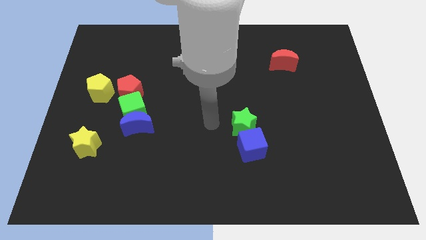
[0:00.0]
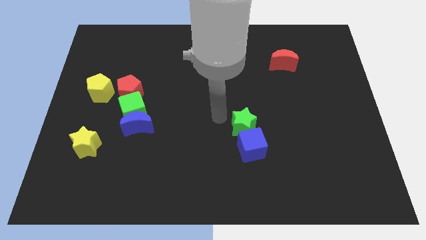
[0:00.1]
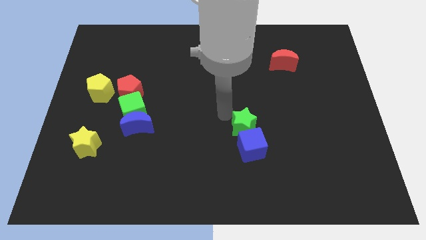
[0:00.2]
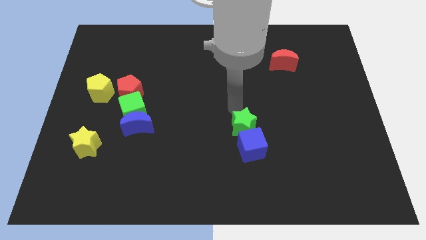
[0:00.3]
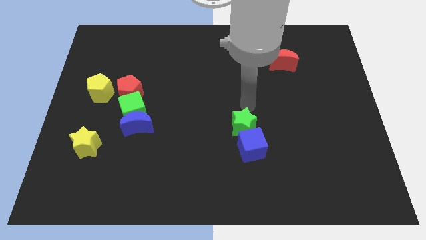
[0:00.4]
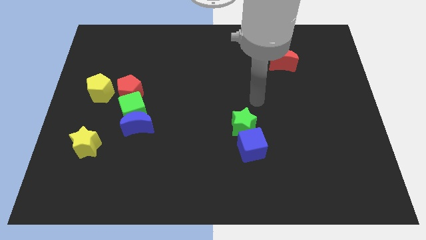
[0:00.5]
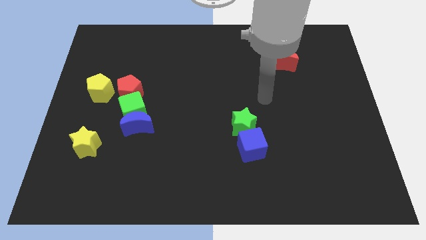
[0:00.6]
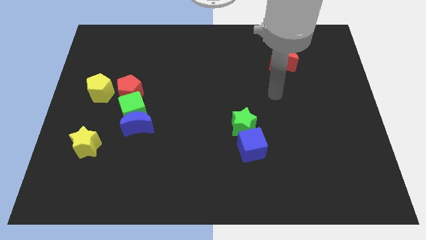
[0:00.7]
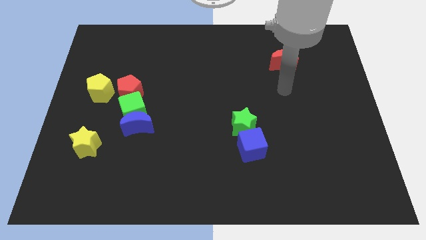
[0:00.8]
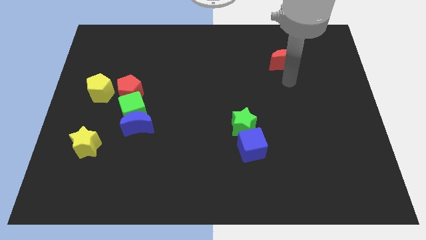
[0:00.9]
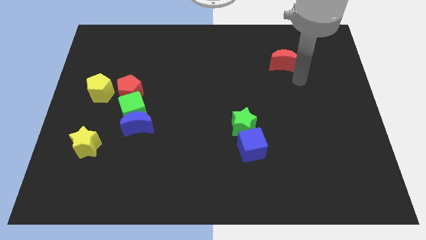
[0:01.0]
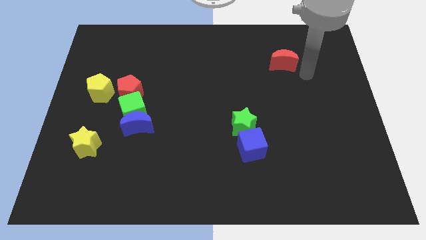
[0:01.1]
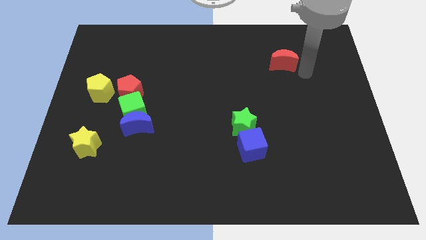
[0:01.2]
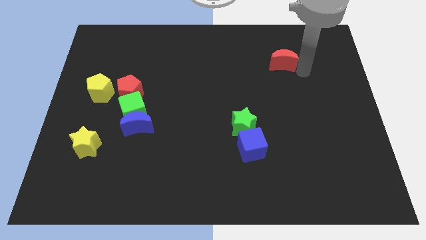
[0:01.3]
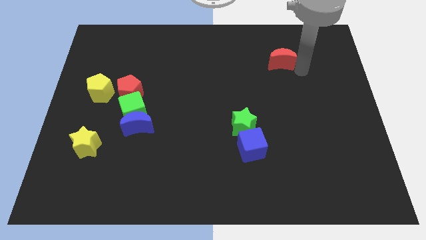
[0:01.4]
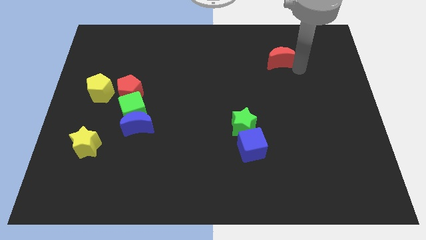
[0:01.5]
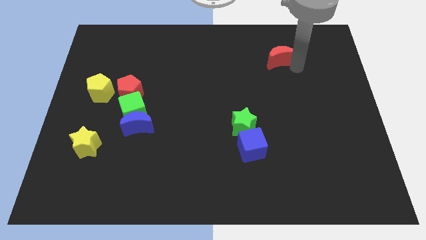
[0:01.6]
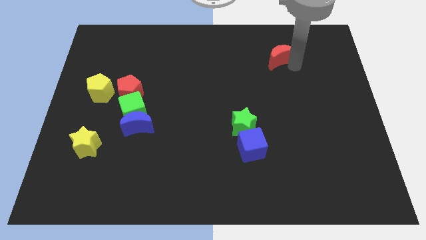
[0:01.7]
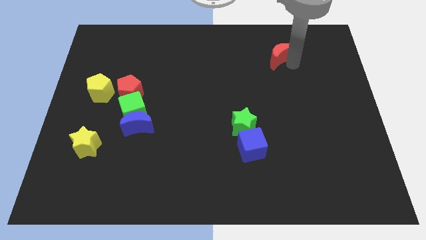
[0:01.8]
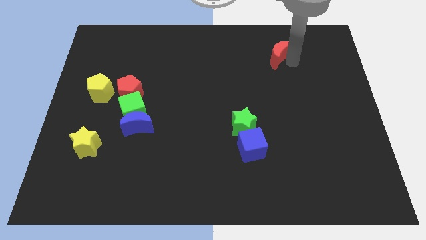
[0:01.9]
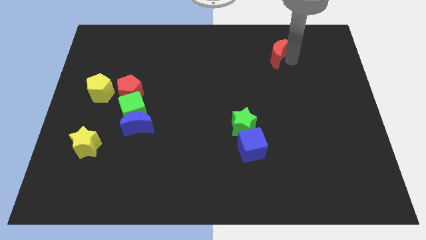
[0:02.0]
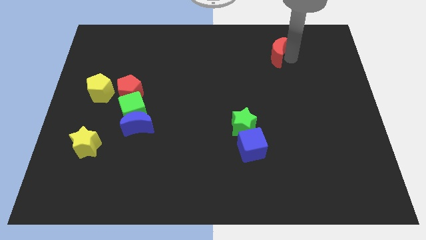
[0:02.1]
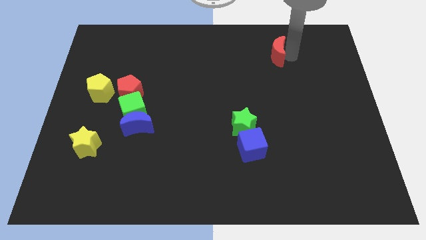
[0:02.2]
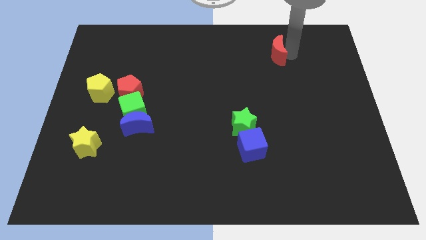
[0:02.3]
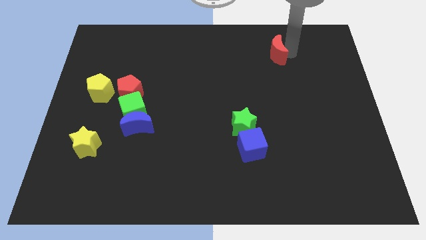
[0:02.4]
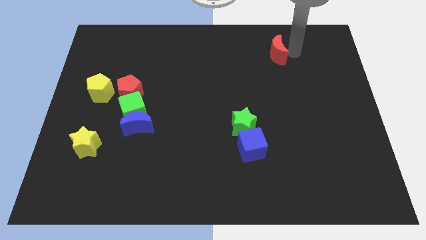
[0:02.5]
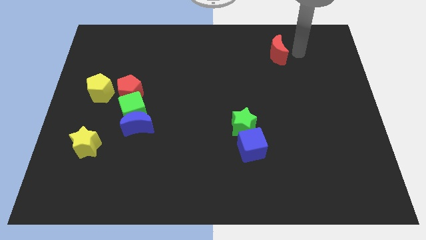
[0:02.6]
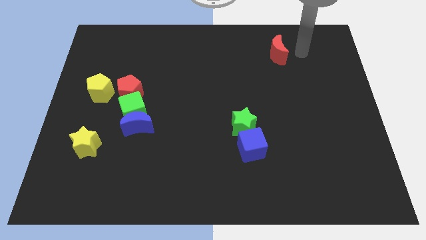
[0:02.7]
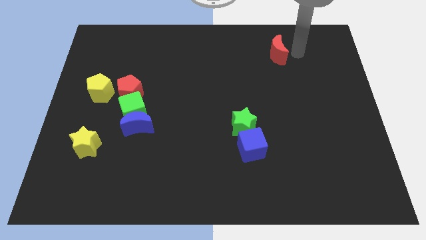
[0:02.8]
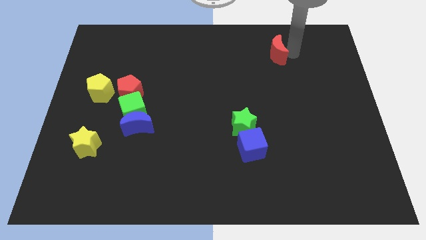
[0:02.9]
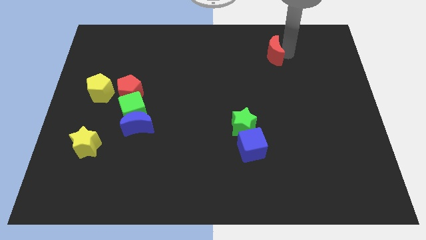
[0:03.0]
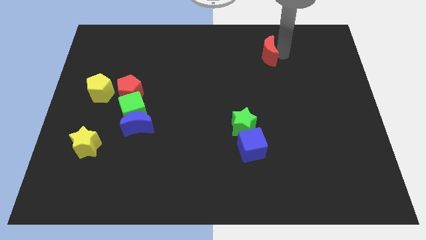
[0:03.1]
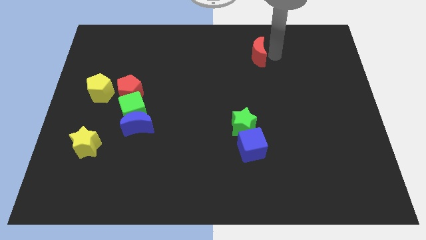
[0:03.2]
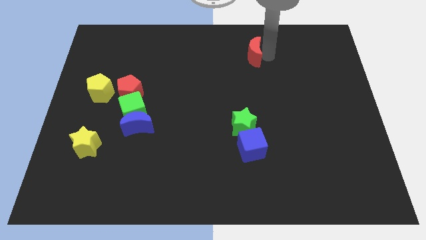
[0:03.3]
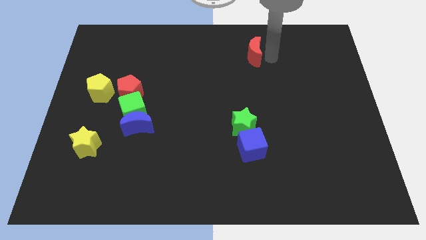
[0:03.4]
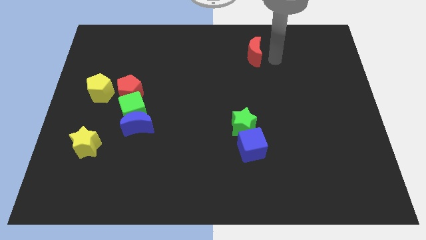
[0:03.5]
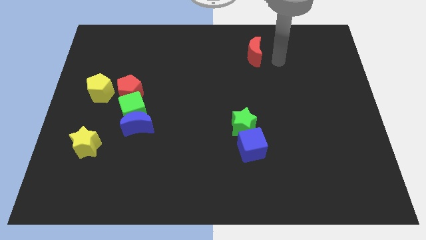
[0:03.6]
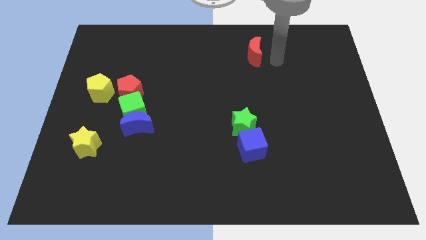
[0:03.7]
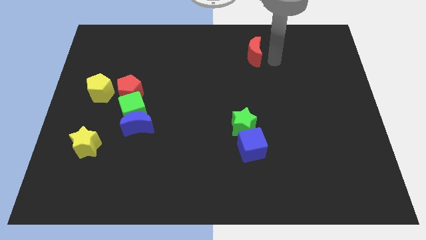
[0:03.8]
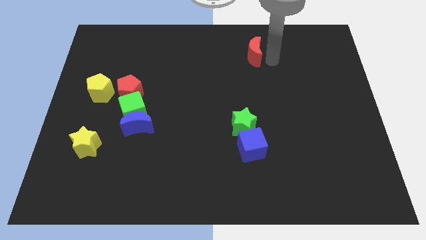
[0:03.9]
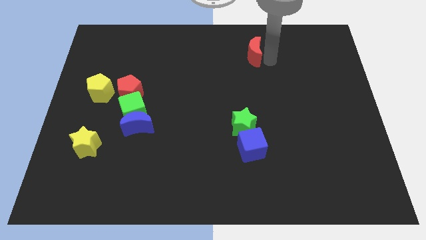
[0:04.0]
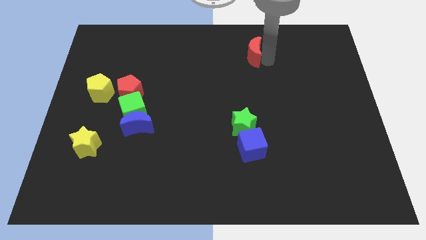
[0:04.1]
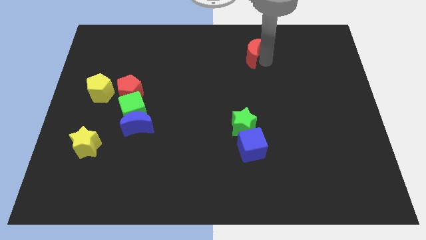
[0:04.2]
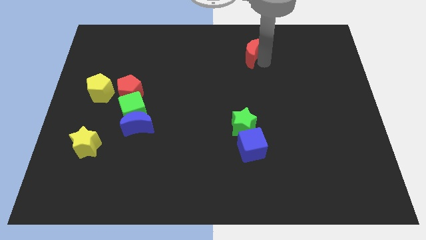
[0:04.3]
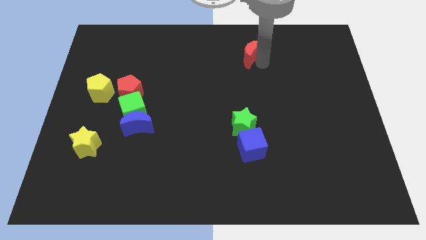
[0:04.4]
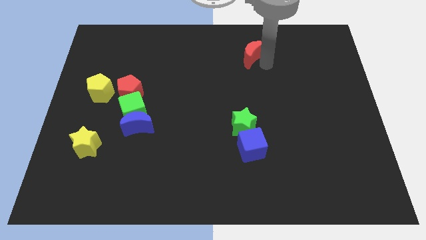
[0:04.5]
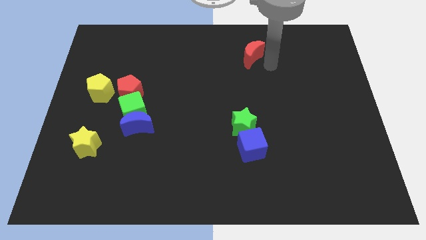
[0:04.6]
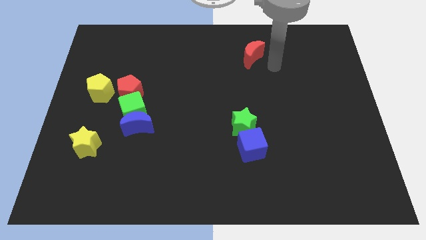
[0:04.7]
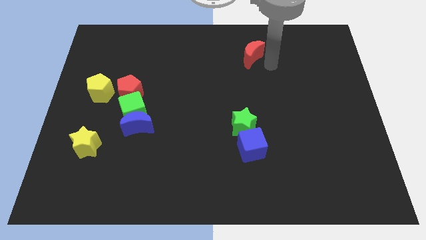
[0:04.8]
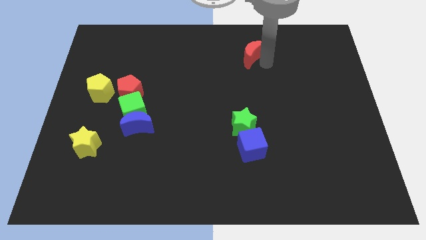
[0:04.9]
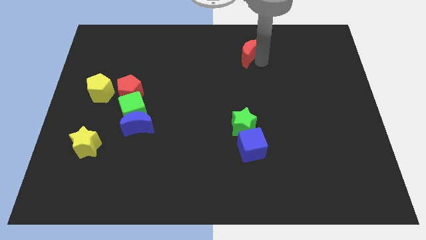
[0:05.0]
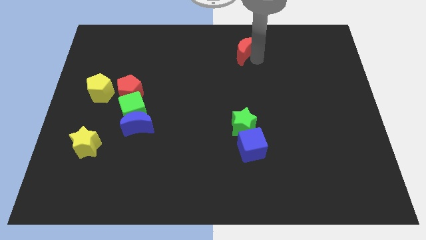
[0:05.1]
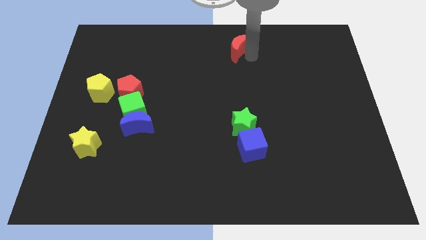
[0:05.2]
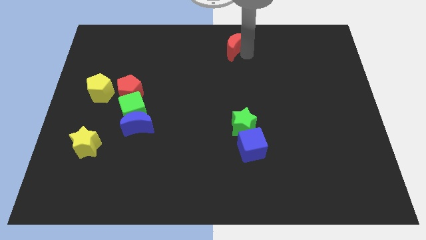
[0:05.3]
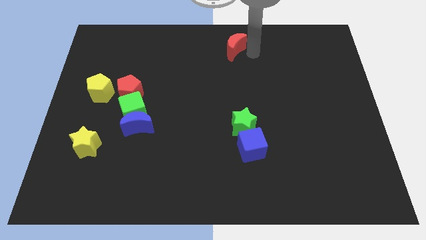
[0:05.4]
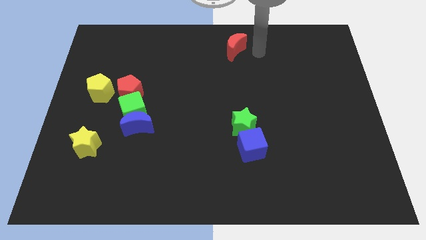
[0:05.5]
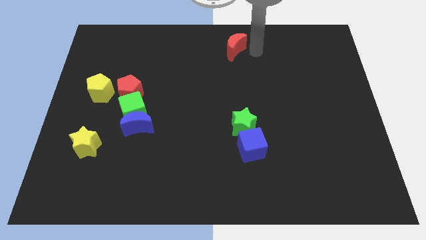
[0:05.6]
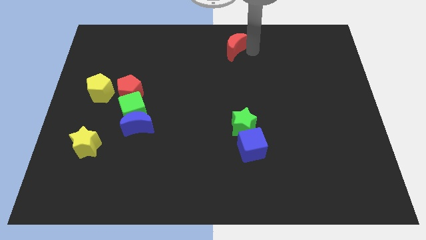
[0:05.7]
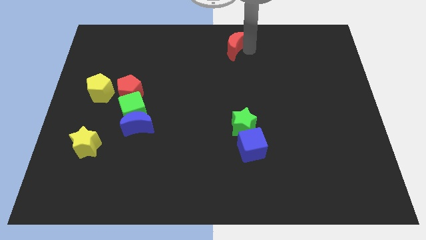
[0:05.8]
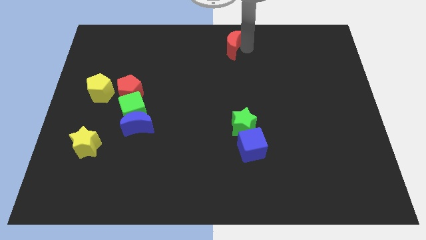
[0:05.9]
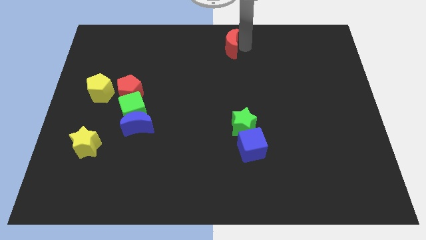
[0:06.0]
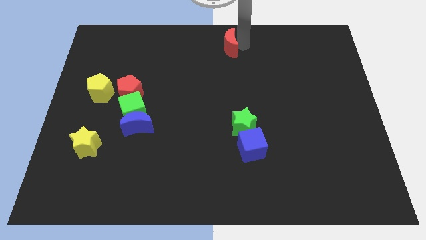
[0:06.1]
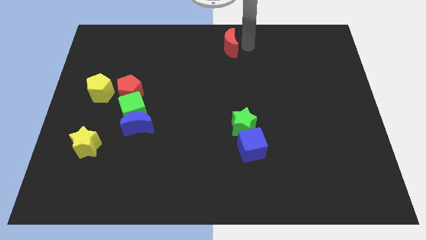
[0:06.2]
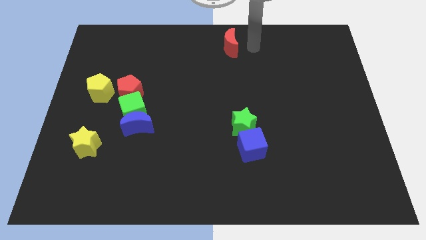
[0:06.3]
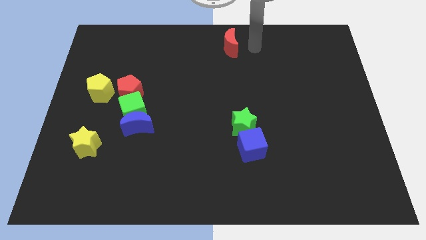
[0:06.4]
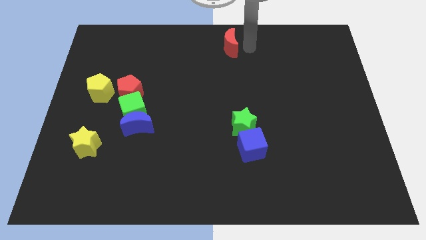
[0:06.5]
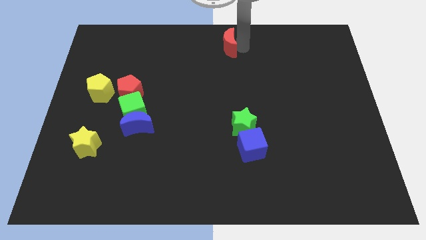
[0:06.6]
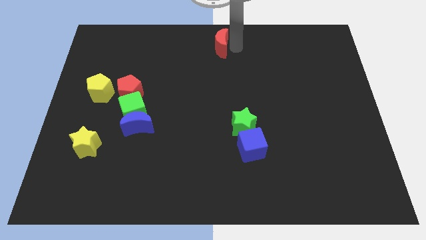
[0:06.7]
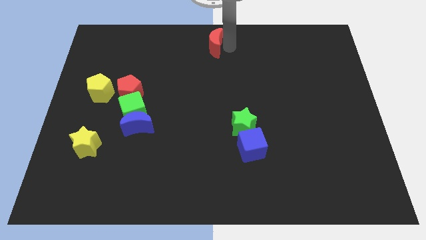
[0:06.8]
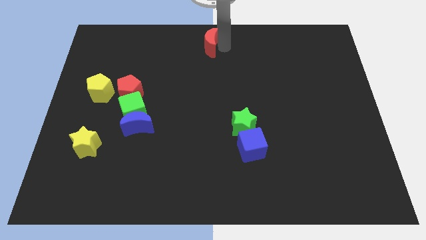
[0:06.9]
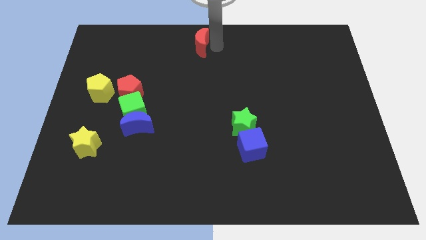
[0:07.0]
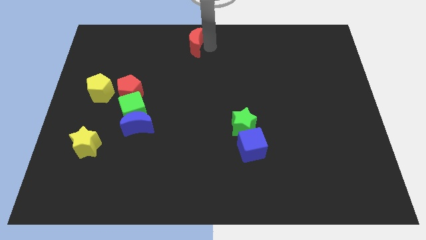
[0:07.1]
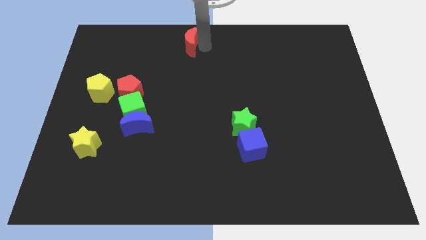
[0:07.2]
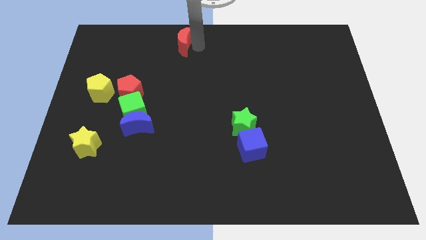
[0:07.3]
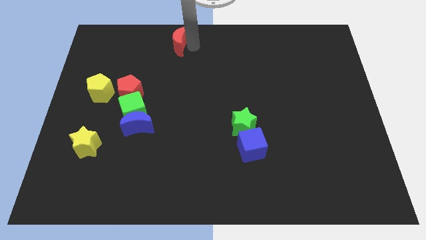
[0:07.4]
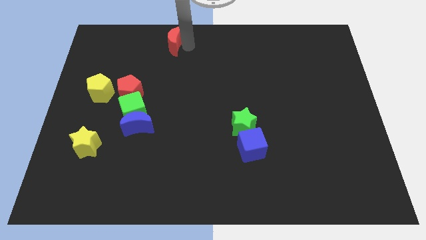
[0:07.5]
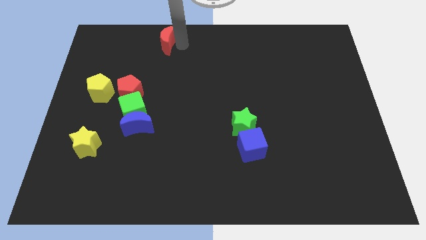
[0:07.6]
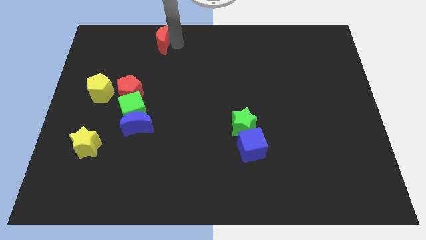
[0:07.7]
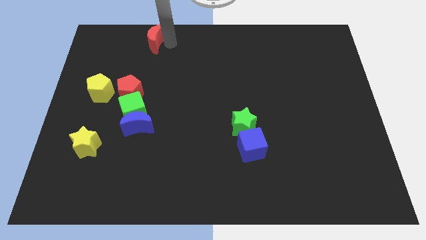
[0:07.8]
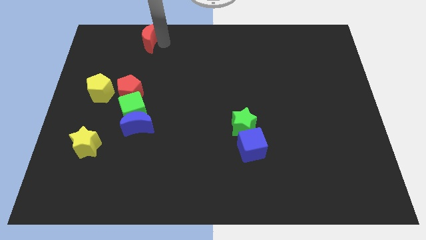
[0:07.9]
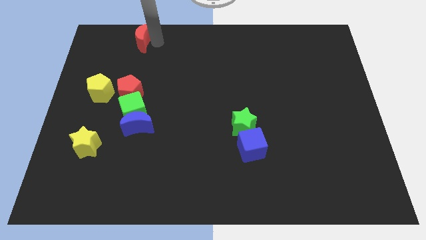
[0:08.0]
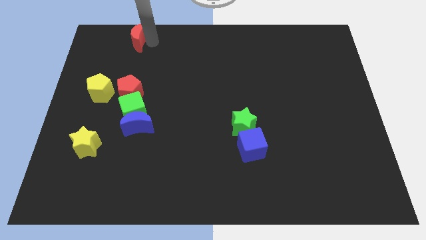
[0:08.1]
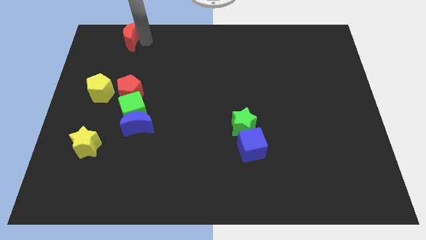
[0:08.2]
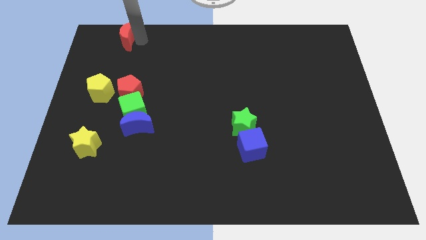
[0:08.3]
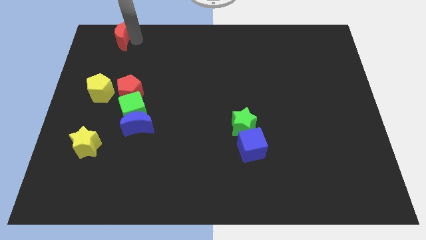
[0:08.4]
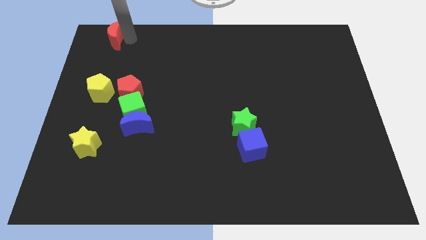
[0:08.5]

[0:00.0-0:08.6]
move the red moon to the top left corner
